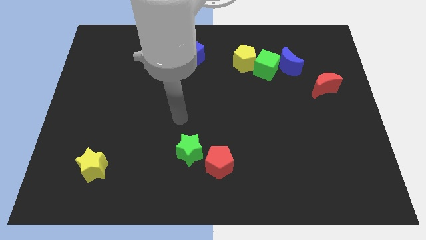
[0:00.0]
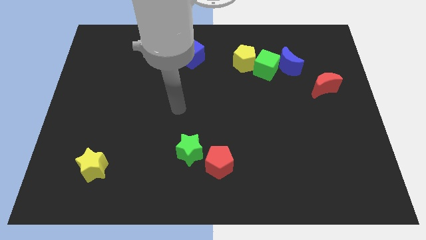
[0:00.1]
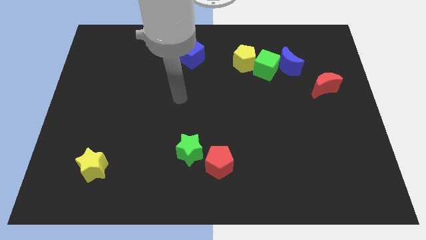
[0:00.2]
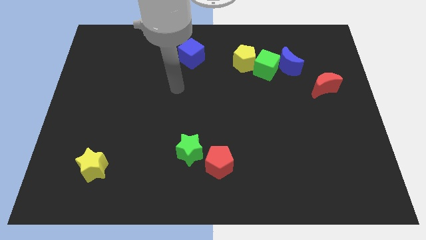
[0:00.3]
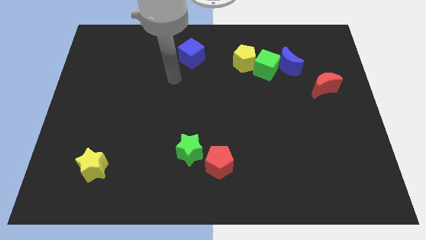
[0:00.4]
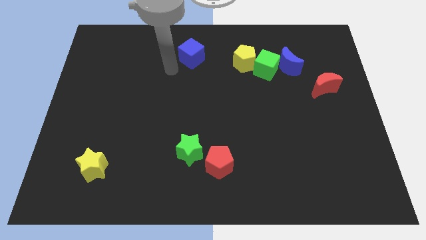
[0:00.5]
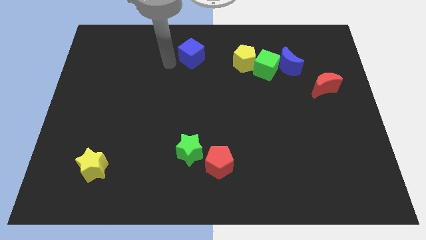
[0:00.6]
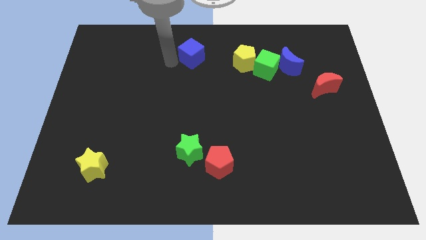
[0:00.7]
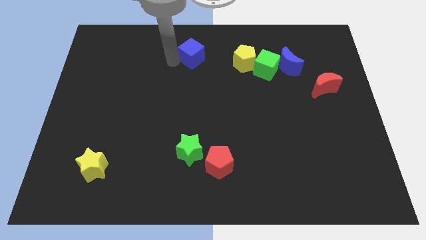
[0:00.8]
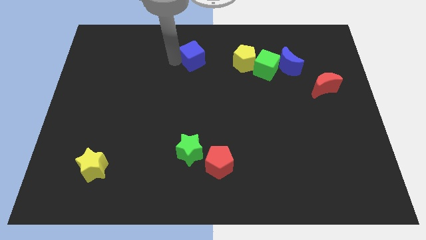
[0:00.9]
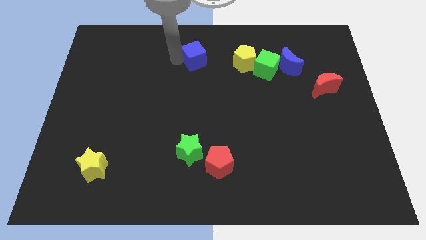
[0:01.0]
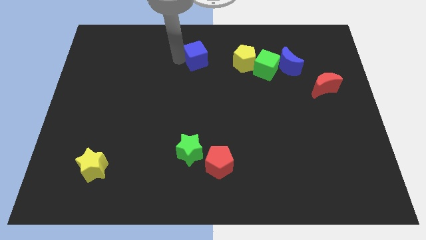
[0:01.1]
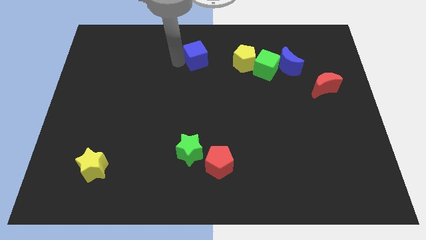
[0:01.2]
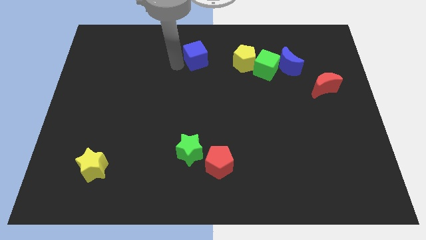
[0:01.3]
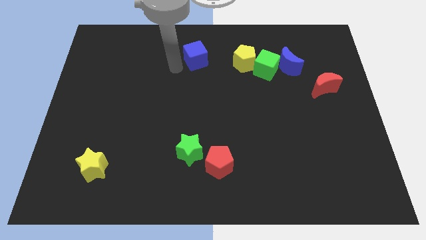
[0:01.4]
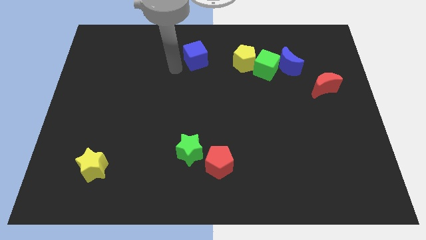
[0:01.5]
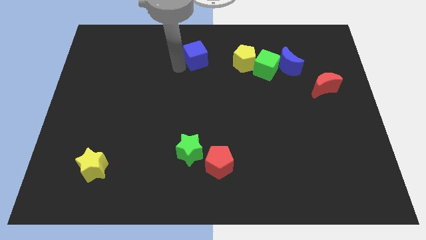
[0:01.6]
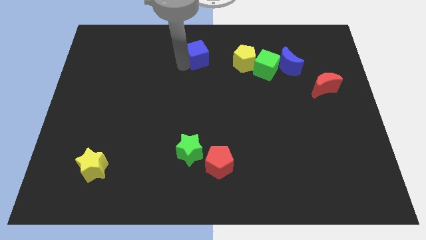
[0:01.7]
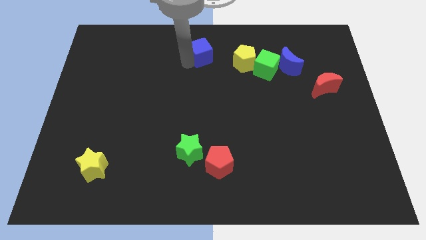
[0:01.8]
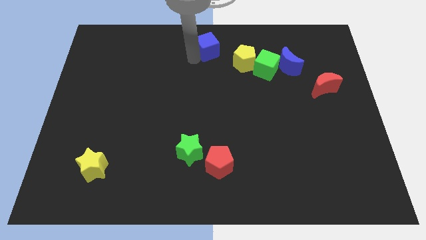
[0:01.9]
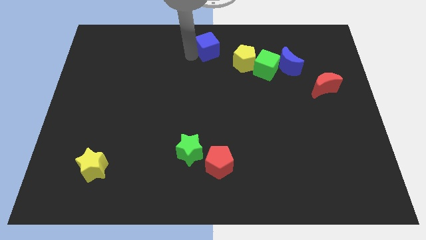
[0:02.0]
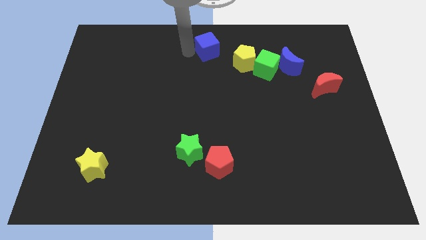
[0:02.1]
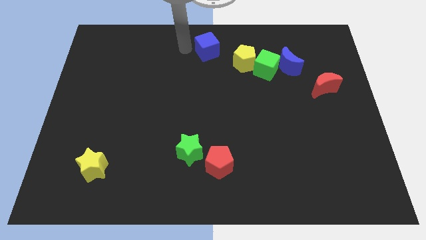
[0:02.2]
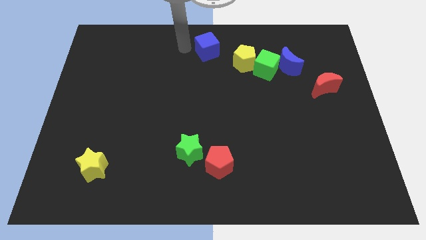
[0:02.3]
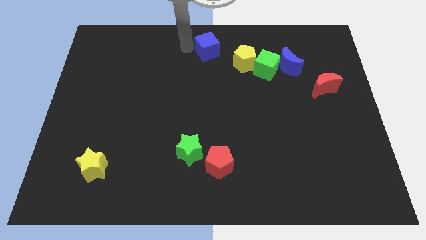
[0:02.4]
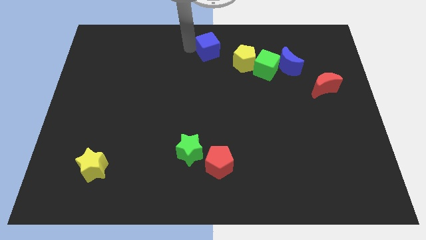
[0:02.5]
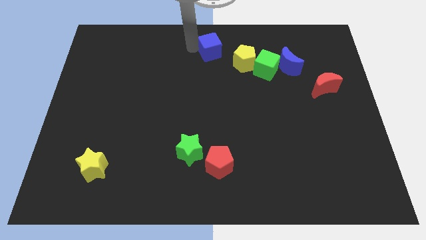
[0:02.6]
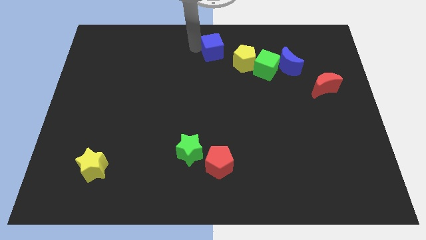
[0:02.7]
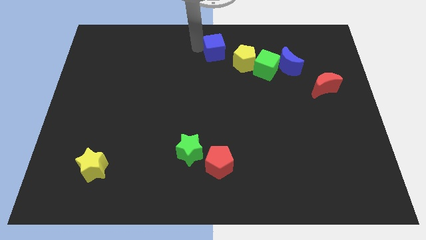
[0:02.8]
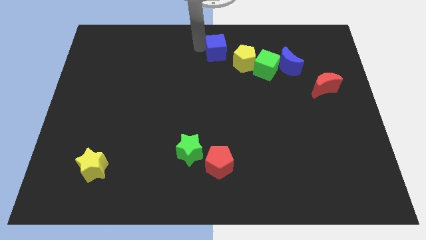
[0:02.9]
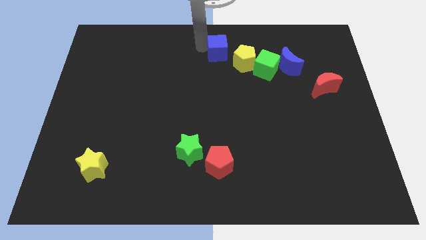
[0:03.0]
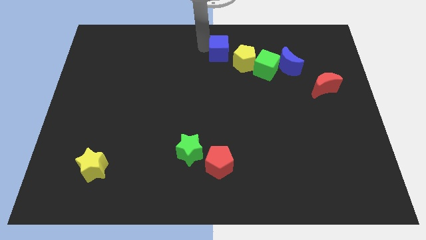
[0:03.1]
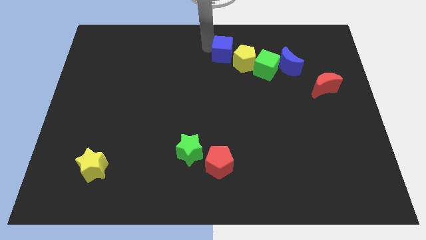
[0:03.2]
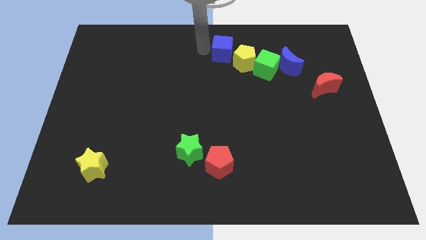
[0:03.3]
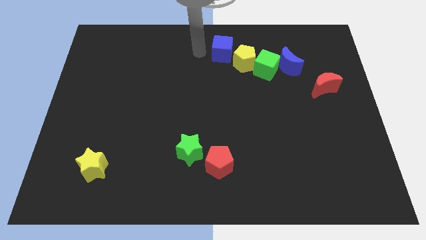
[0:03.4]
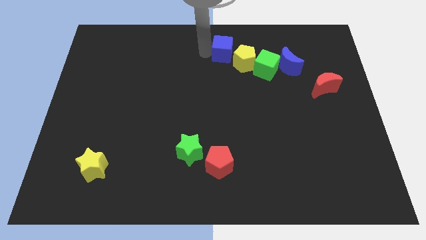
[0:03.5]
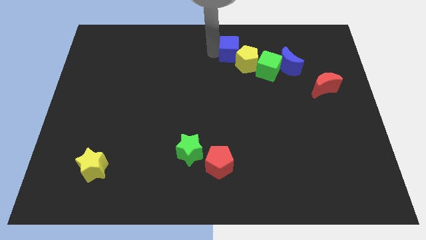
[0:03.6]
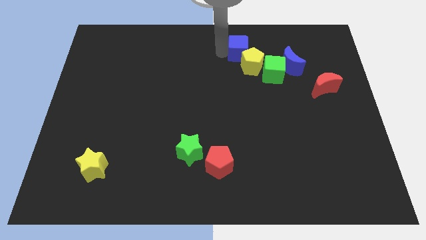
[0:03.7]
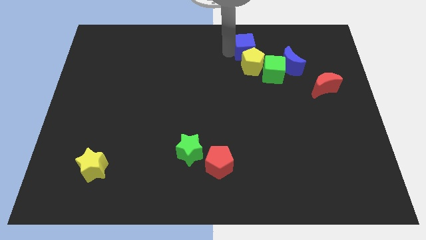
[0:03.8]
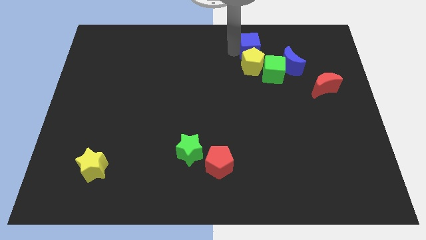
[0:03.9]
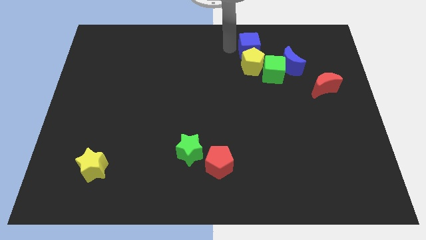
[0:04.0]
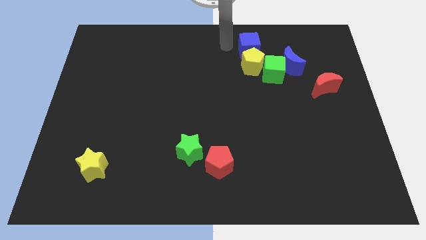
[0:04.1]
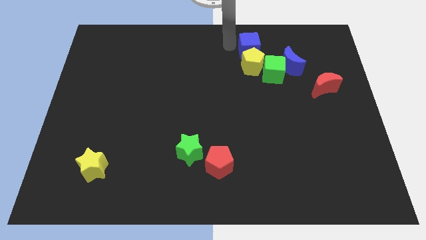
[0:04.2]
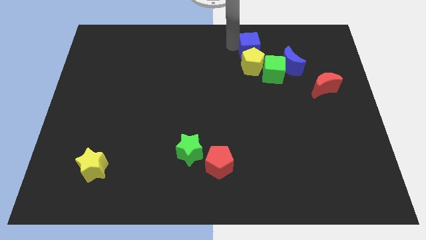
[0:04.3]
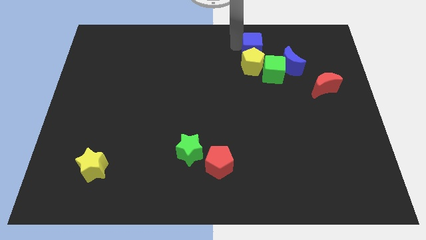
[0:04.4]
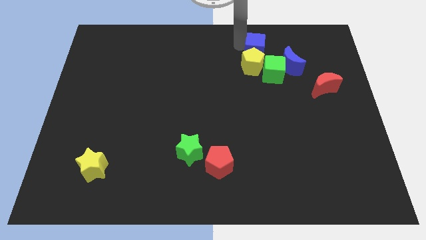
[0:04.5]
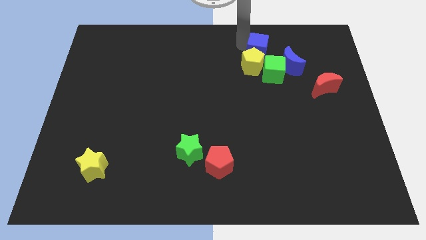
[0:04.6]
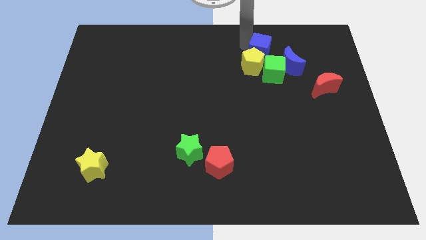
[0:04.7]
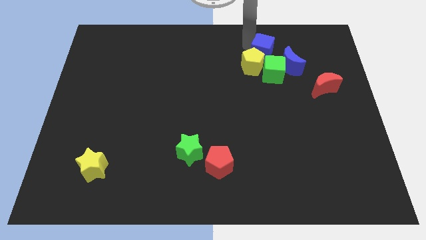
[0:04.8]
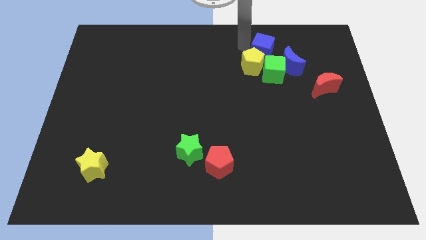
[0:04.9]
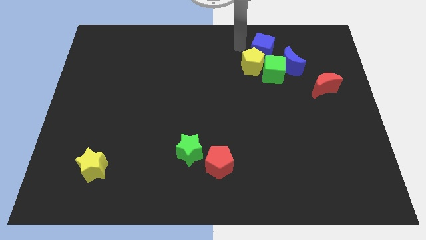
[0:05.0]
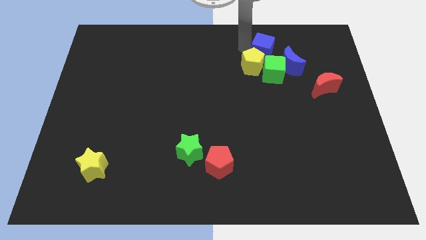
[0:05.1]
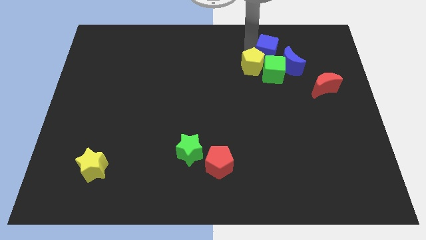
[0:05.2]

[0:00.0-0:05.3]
move the blue cube right of the yellow pentagon

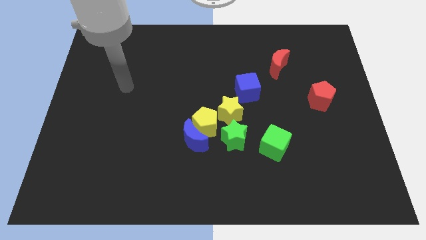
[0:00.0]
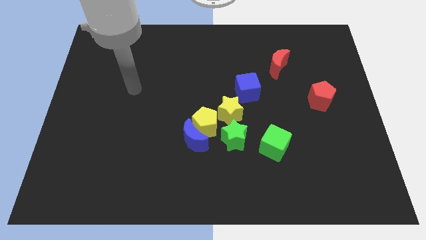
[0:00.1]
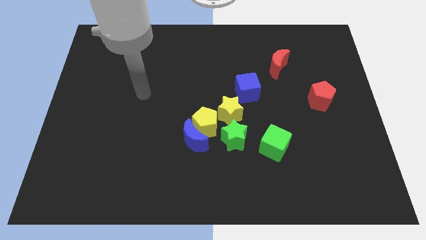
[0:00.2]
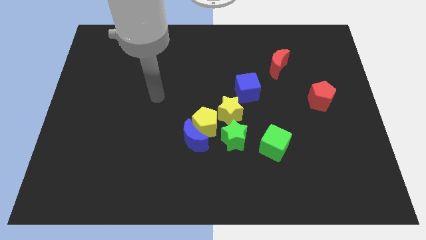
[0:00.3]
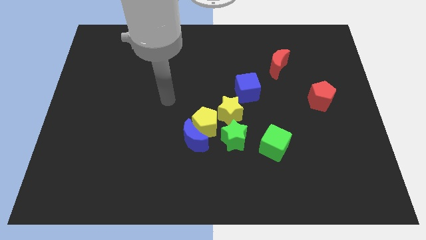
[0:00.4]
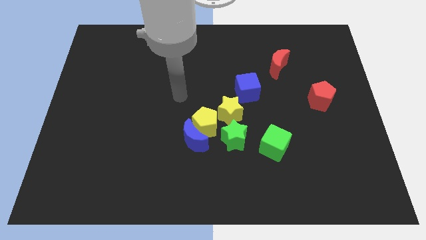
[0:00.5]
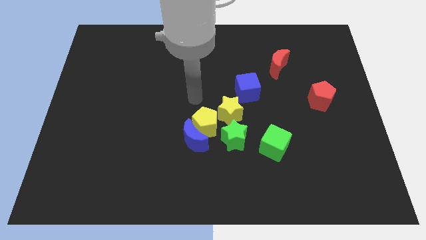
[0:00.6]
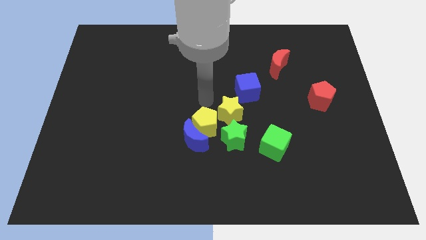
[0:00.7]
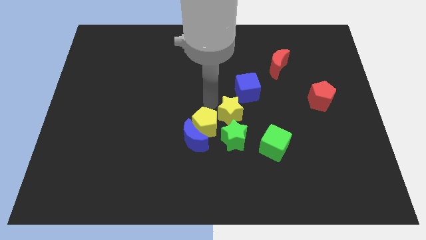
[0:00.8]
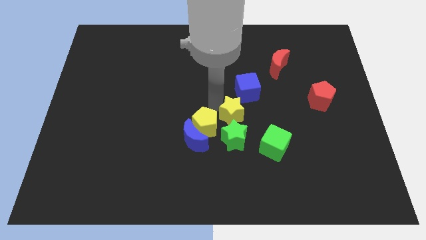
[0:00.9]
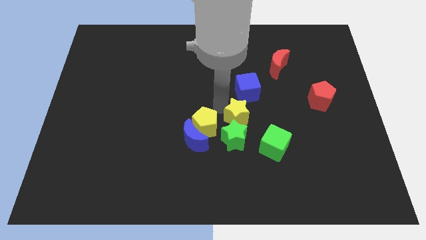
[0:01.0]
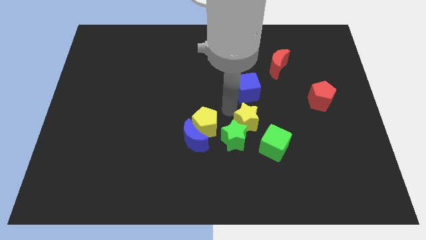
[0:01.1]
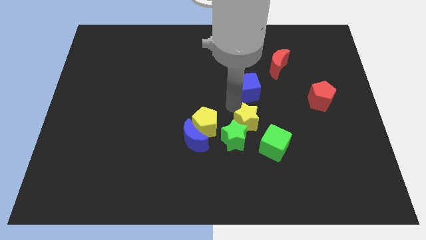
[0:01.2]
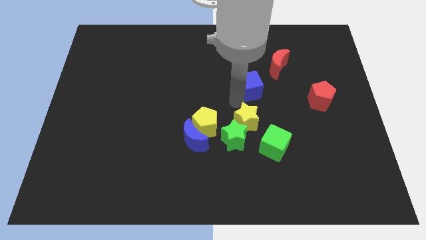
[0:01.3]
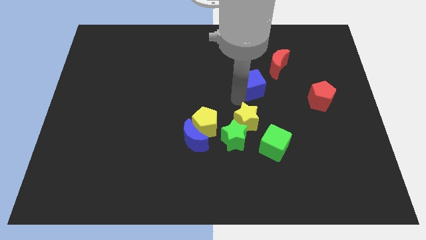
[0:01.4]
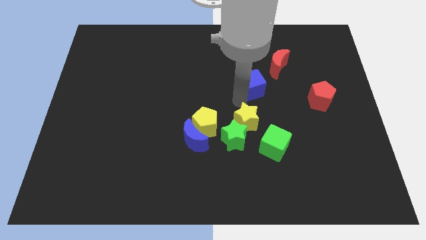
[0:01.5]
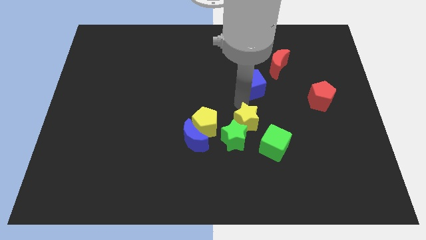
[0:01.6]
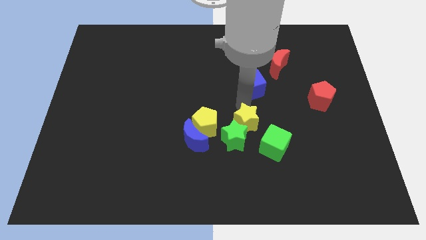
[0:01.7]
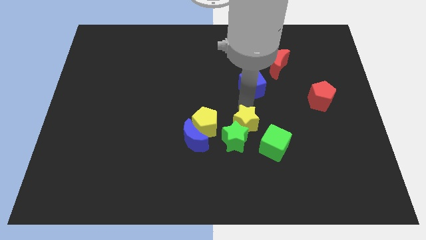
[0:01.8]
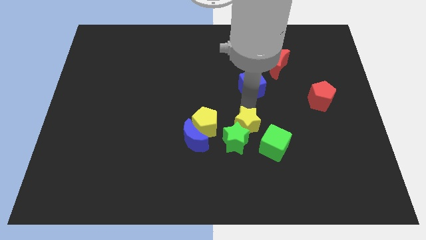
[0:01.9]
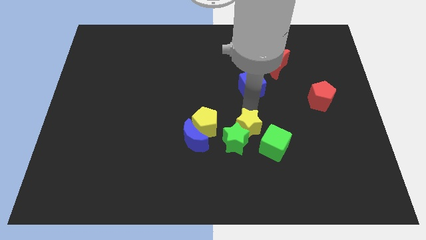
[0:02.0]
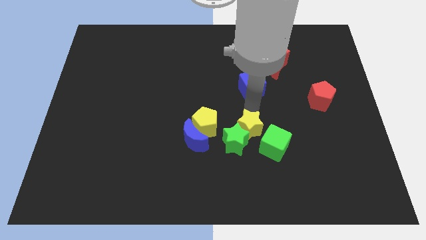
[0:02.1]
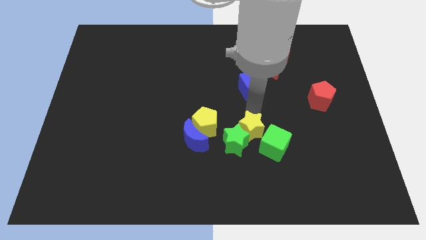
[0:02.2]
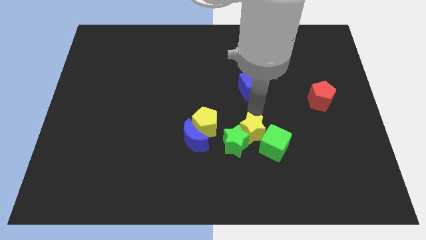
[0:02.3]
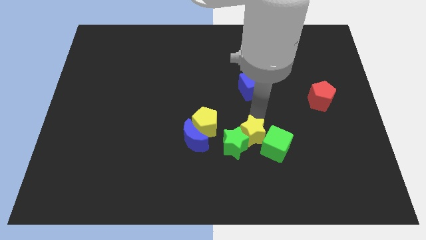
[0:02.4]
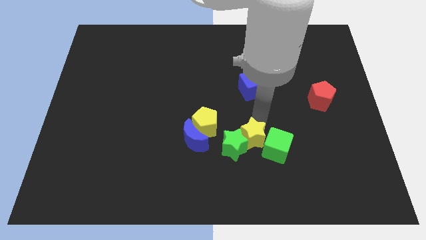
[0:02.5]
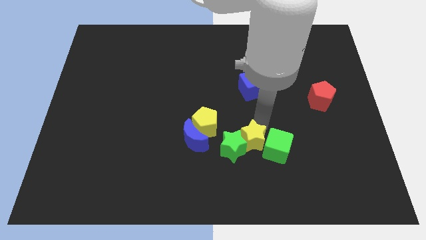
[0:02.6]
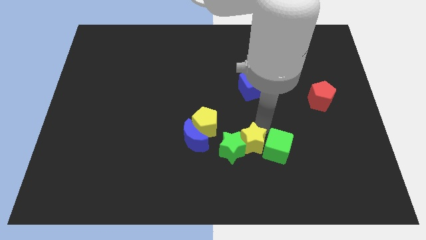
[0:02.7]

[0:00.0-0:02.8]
slide the yellow star to the bottom left of the green cube
